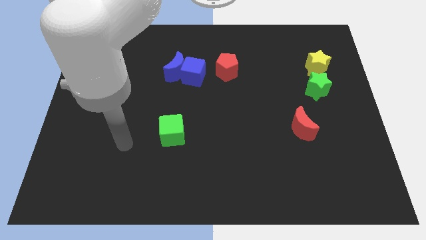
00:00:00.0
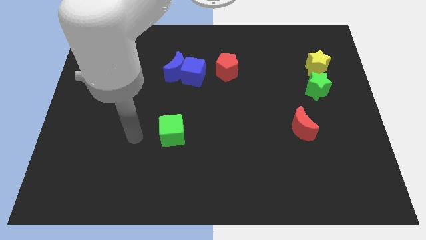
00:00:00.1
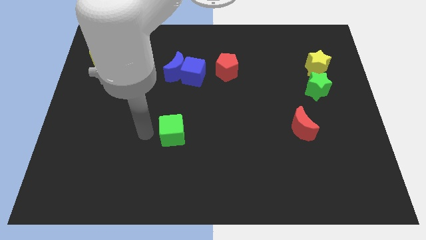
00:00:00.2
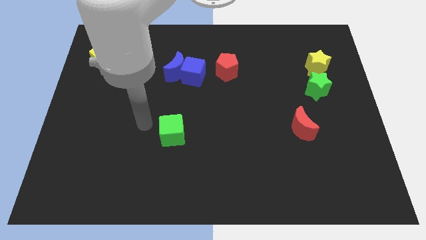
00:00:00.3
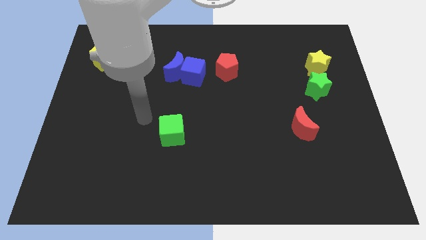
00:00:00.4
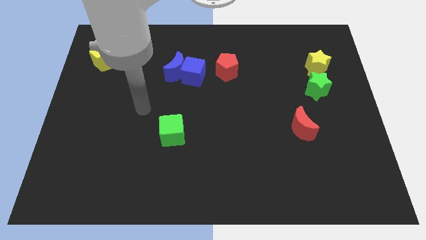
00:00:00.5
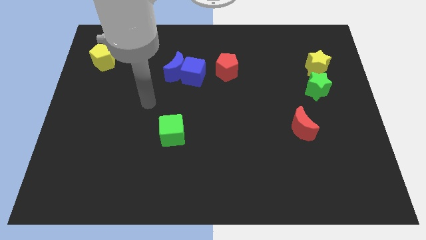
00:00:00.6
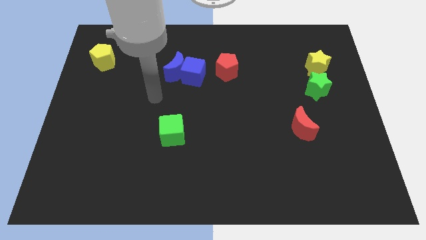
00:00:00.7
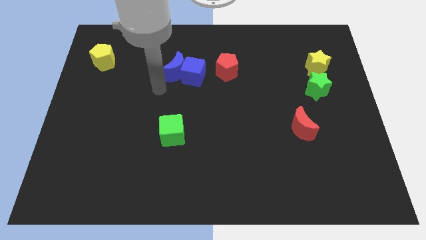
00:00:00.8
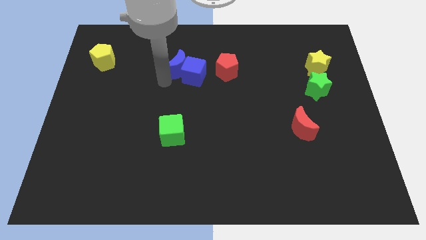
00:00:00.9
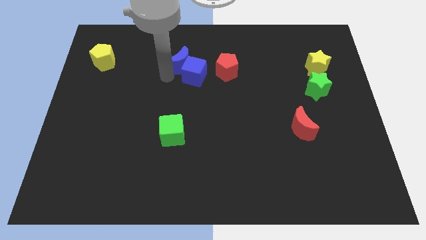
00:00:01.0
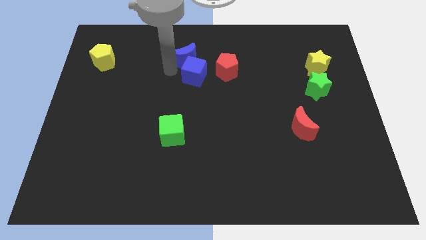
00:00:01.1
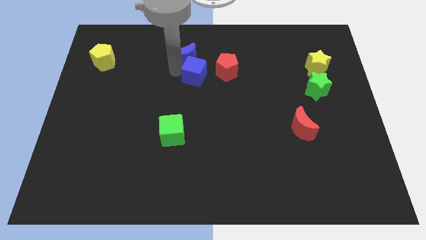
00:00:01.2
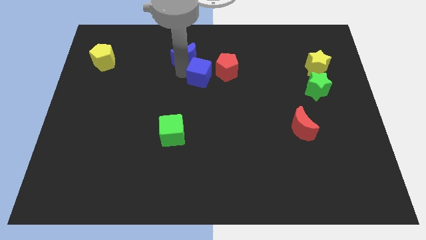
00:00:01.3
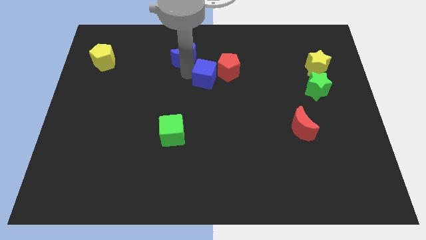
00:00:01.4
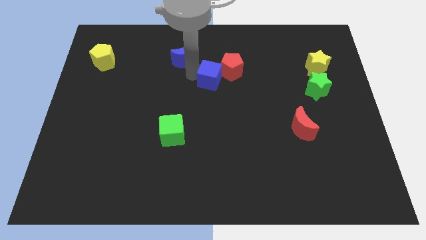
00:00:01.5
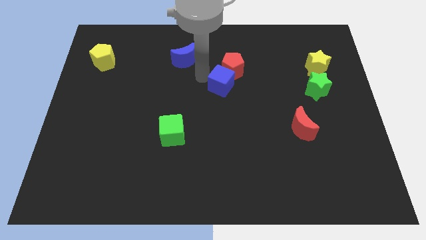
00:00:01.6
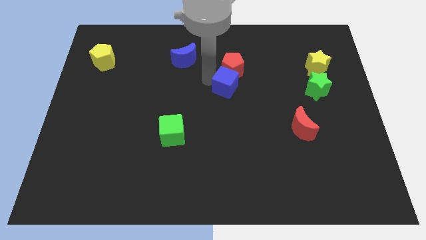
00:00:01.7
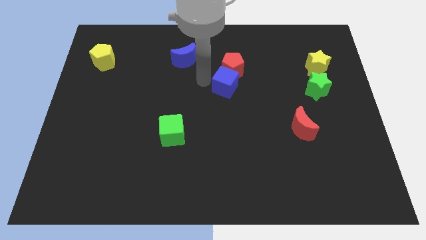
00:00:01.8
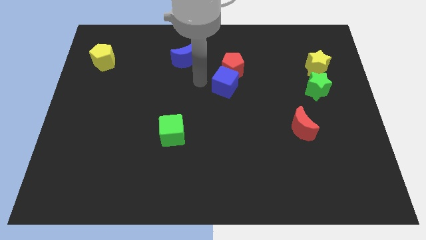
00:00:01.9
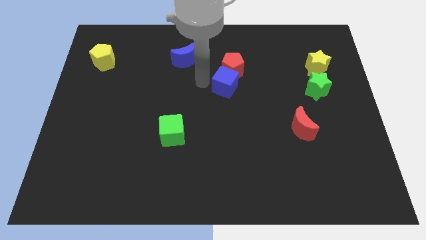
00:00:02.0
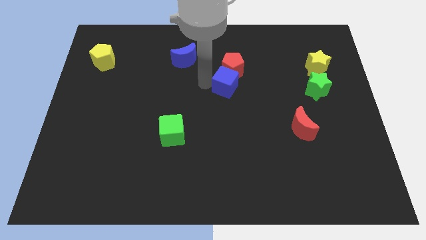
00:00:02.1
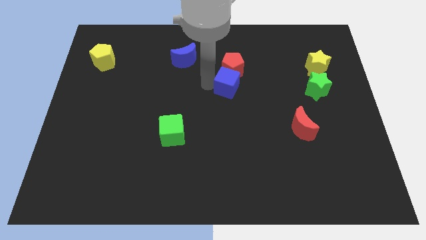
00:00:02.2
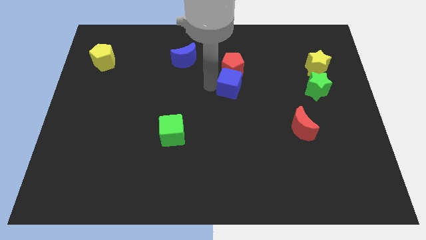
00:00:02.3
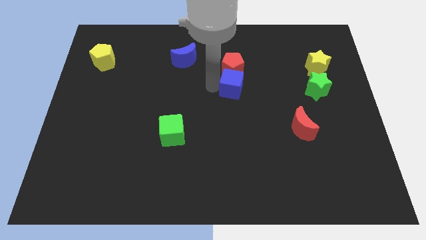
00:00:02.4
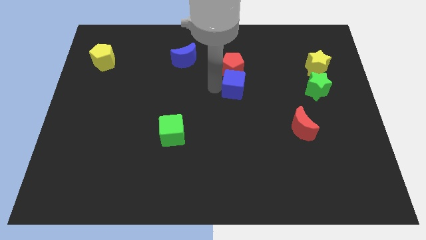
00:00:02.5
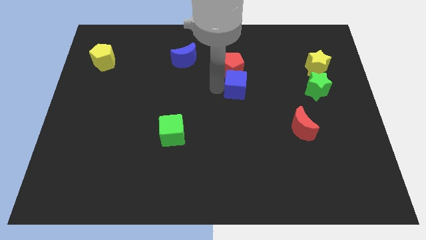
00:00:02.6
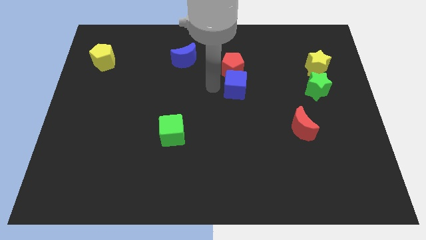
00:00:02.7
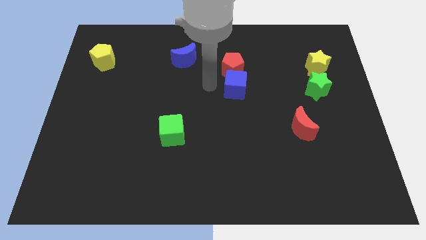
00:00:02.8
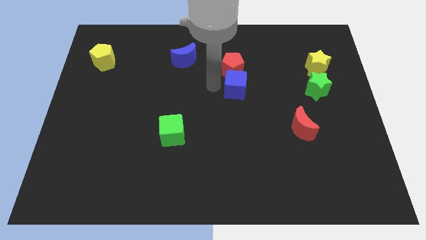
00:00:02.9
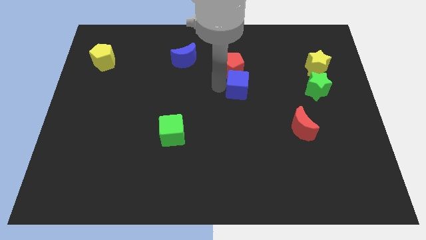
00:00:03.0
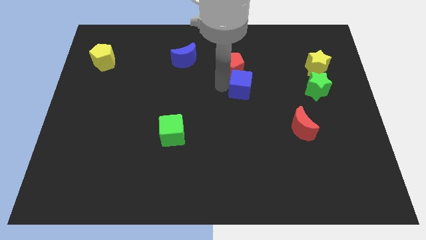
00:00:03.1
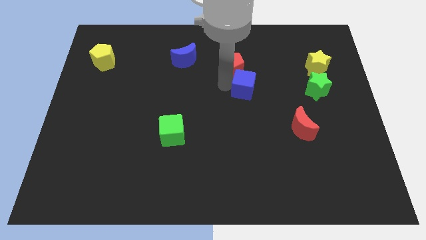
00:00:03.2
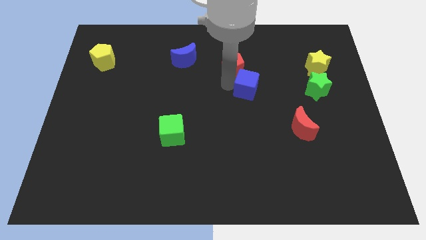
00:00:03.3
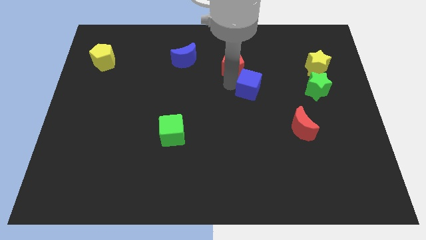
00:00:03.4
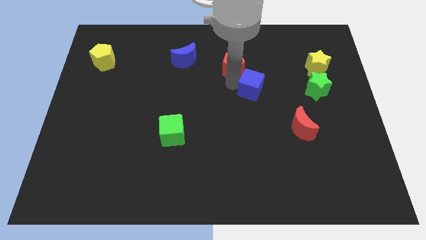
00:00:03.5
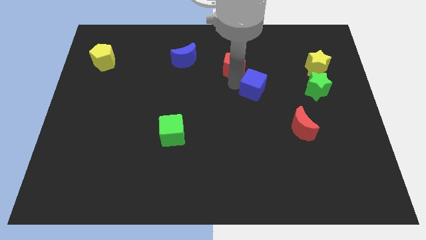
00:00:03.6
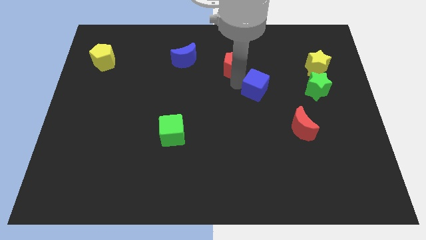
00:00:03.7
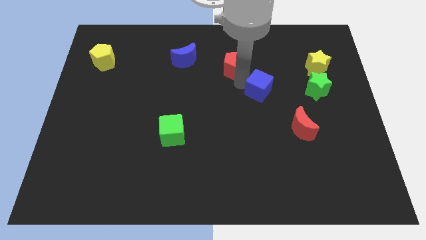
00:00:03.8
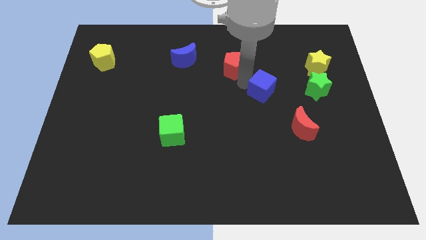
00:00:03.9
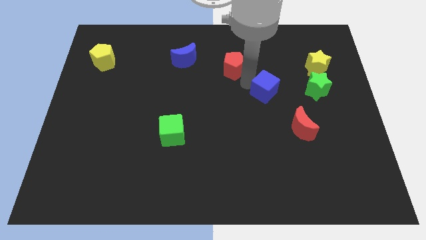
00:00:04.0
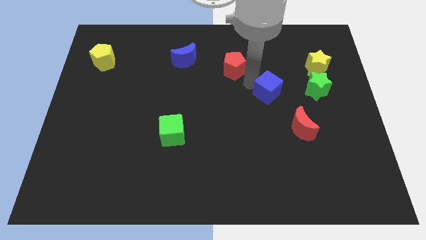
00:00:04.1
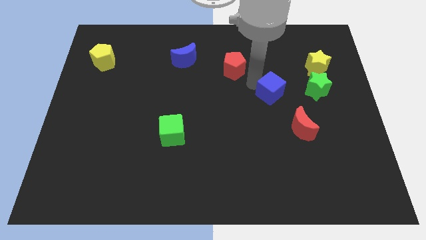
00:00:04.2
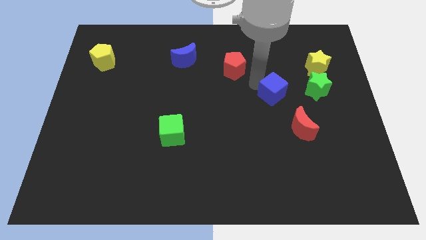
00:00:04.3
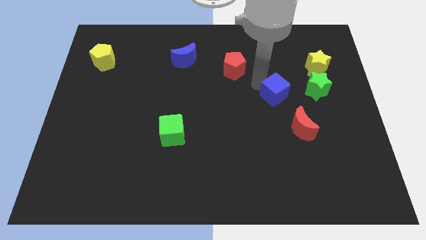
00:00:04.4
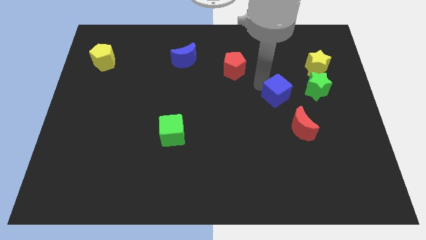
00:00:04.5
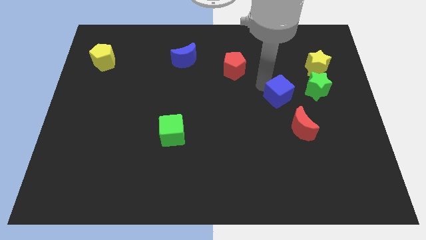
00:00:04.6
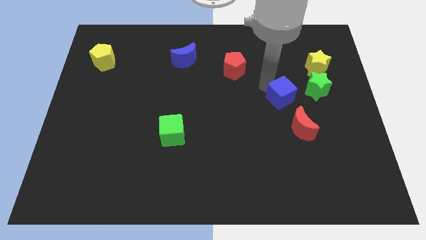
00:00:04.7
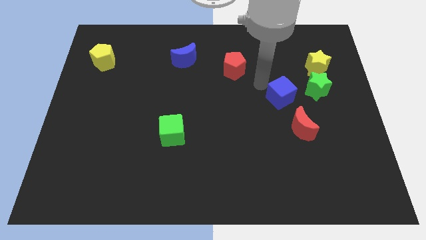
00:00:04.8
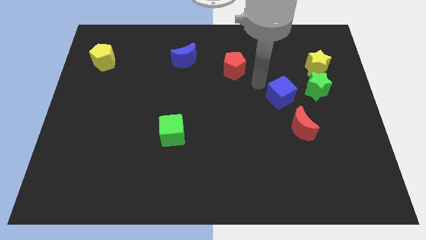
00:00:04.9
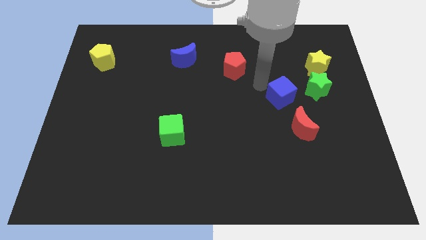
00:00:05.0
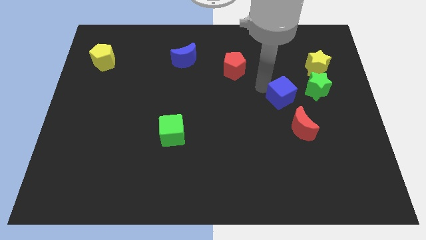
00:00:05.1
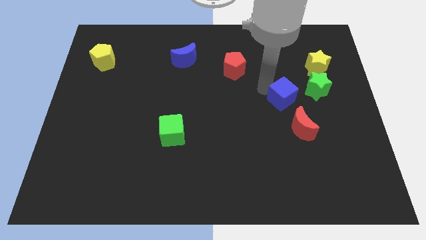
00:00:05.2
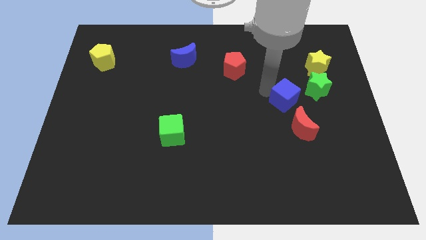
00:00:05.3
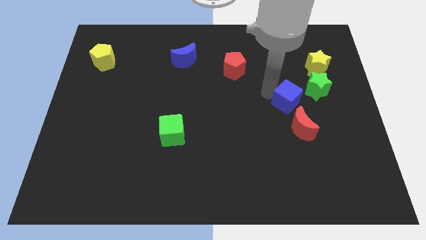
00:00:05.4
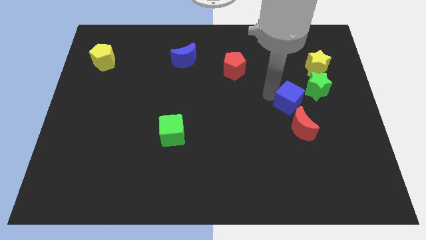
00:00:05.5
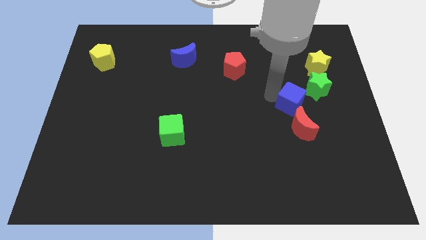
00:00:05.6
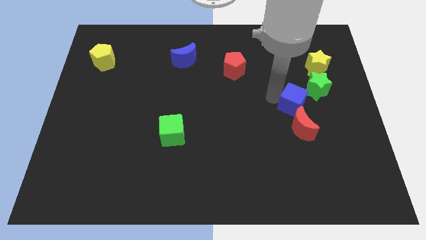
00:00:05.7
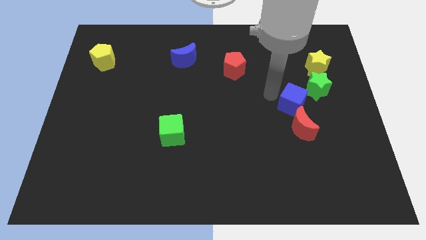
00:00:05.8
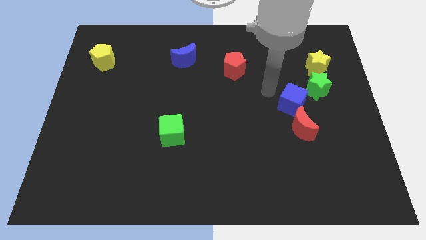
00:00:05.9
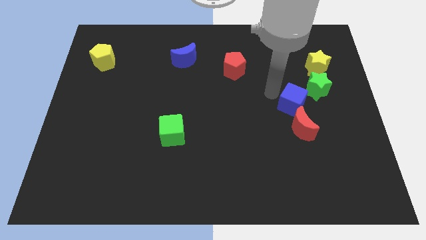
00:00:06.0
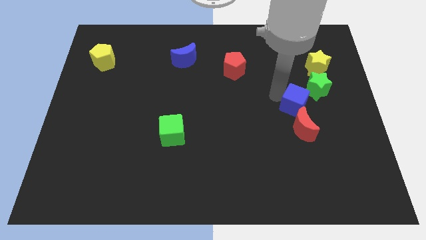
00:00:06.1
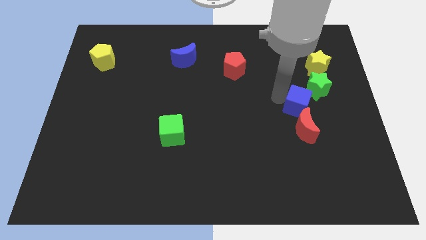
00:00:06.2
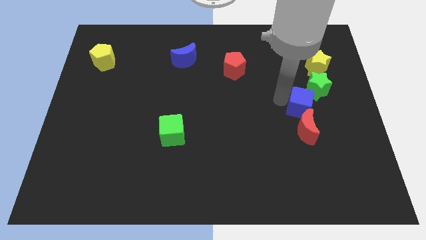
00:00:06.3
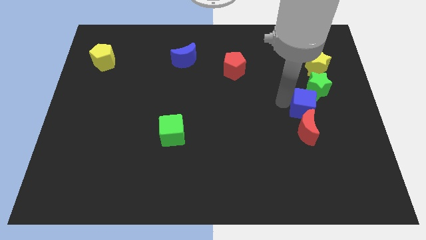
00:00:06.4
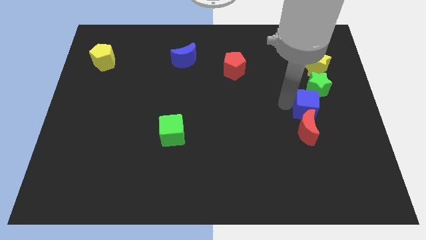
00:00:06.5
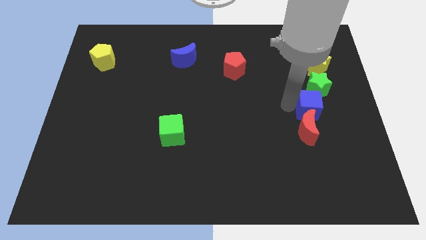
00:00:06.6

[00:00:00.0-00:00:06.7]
move the blue cube to the bottom of the yellow star

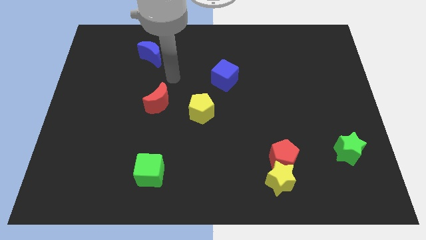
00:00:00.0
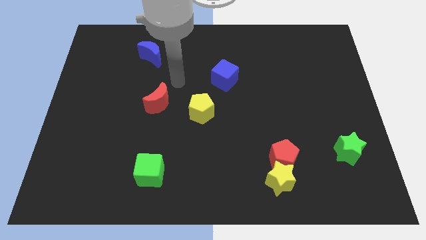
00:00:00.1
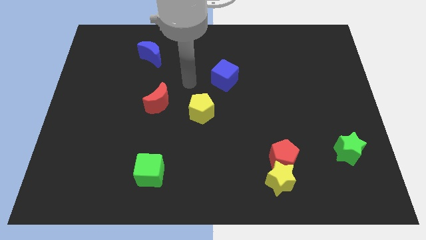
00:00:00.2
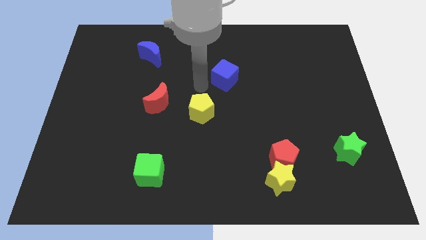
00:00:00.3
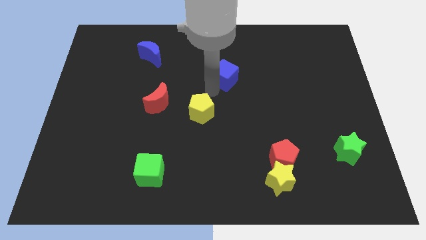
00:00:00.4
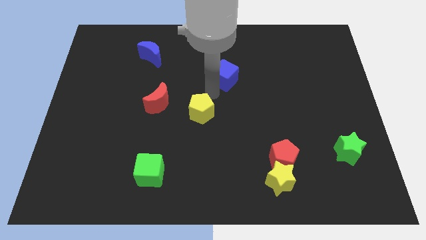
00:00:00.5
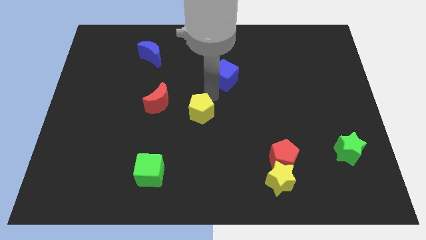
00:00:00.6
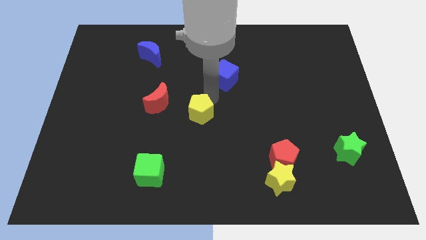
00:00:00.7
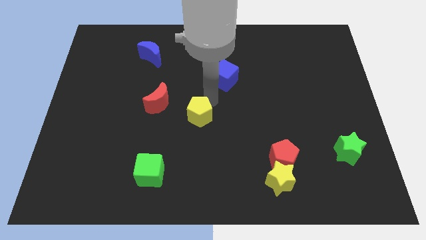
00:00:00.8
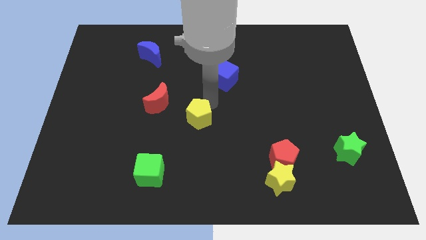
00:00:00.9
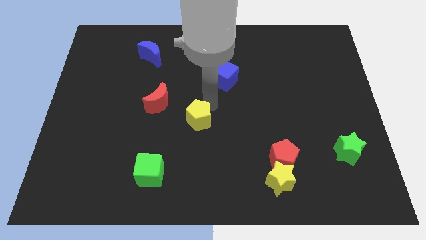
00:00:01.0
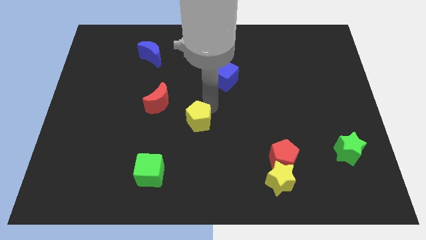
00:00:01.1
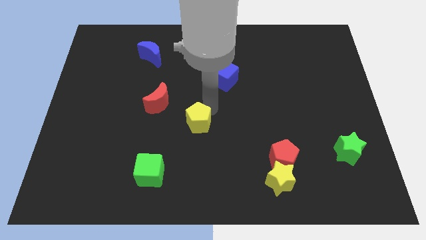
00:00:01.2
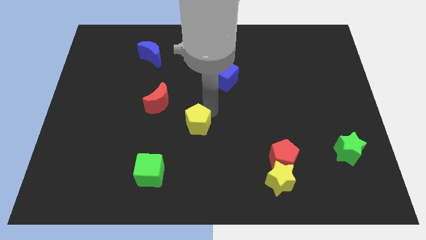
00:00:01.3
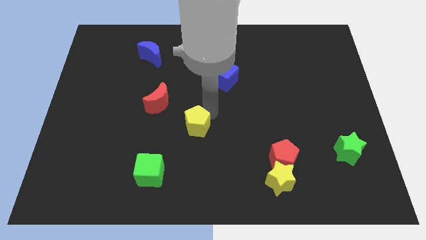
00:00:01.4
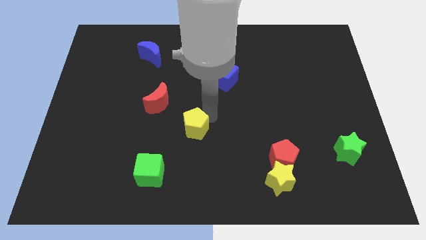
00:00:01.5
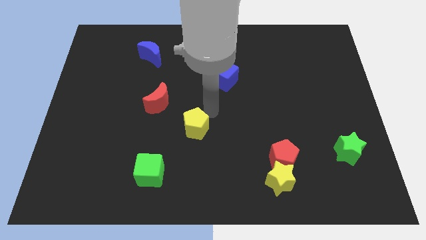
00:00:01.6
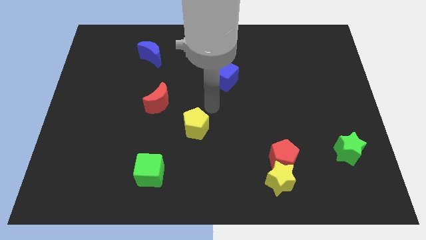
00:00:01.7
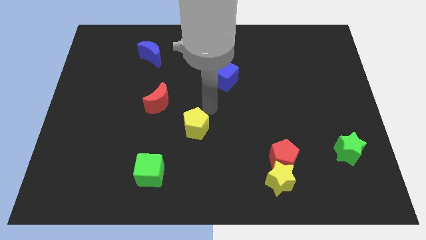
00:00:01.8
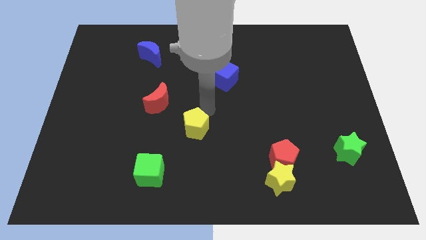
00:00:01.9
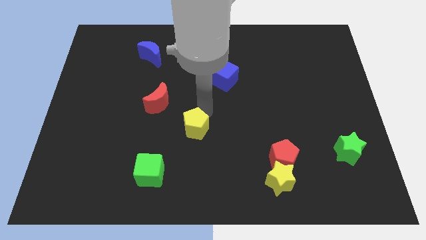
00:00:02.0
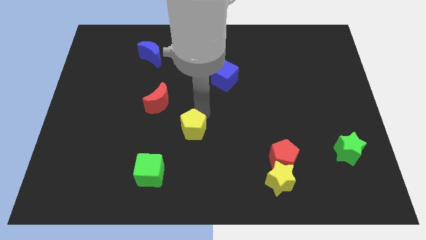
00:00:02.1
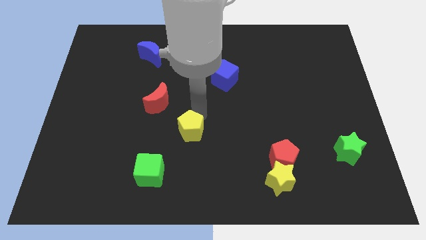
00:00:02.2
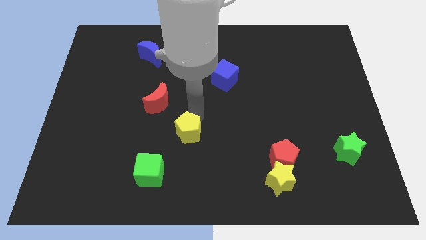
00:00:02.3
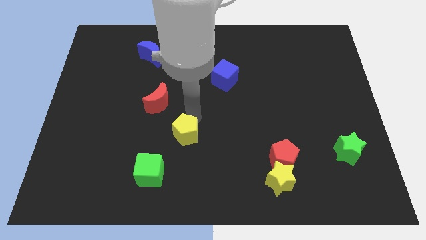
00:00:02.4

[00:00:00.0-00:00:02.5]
push the yellow pentagon to the top right side of the green cube
